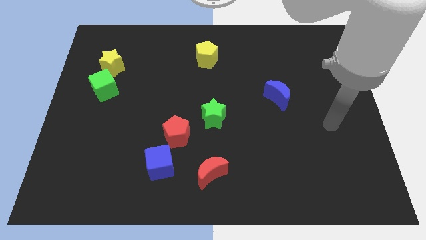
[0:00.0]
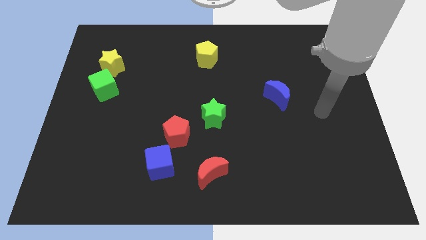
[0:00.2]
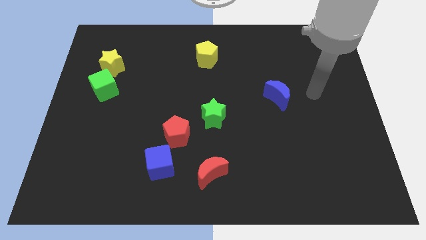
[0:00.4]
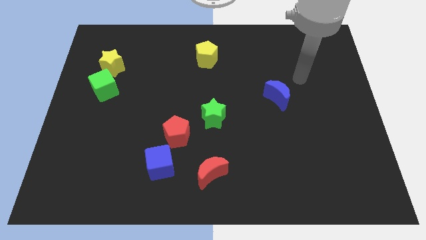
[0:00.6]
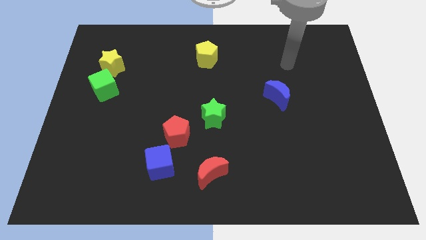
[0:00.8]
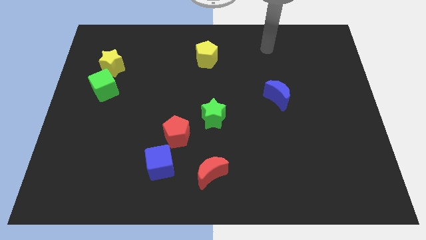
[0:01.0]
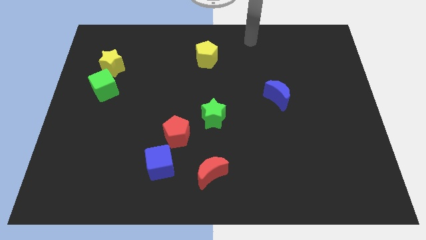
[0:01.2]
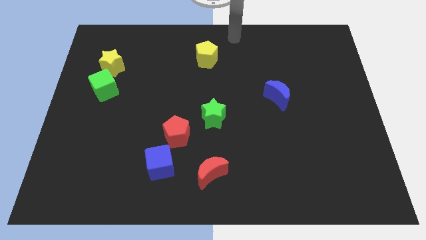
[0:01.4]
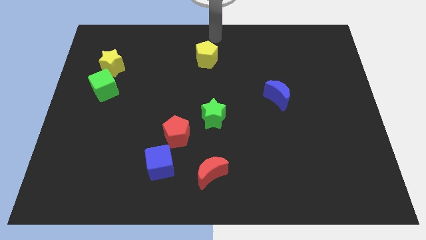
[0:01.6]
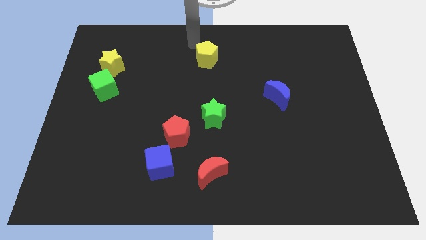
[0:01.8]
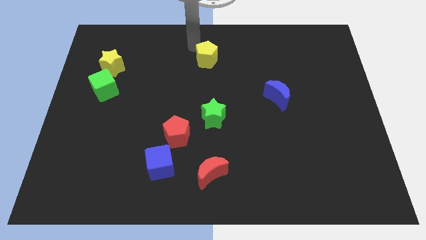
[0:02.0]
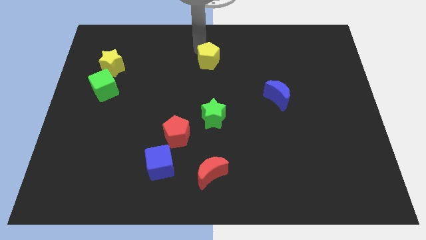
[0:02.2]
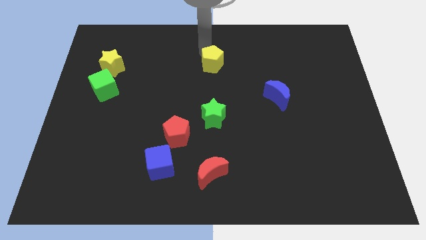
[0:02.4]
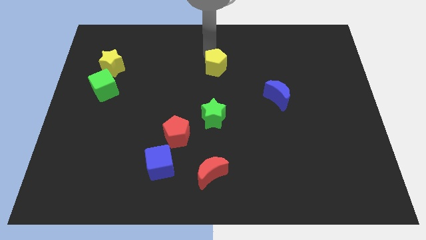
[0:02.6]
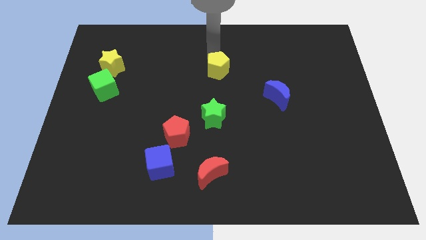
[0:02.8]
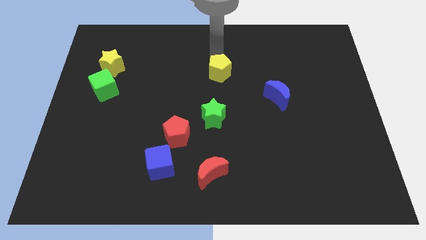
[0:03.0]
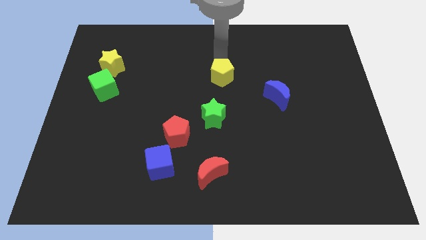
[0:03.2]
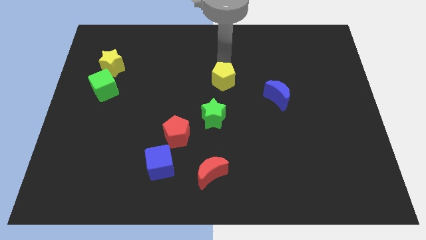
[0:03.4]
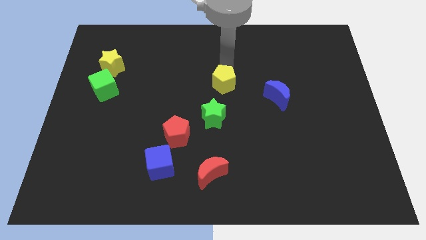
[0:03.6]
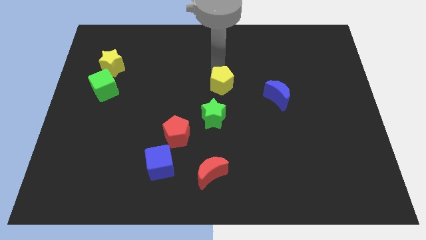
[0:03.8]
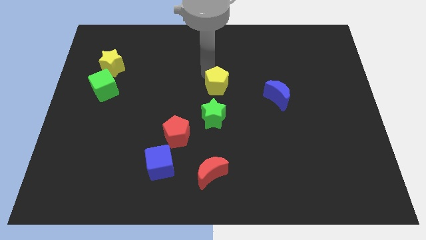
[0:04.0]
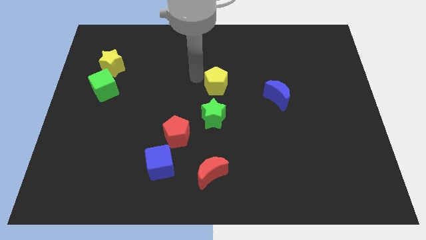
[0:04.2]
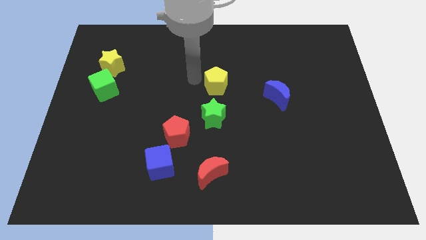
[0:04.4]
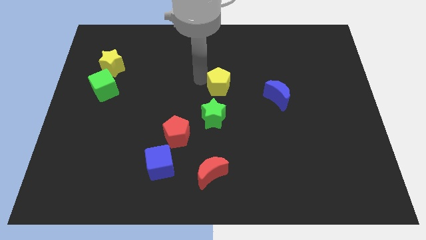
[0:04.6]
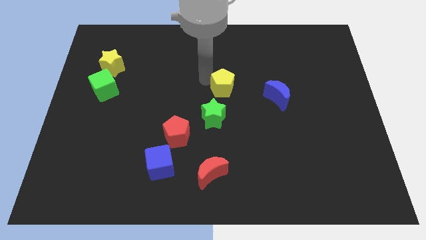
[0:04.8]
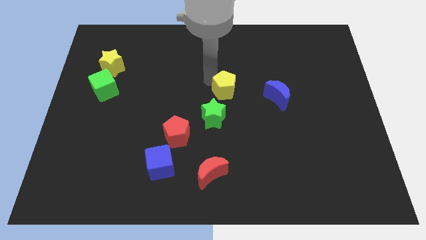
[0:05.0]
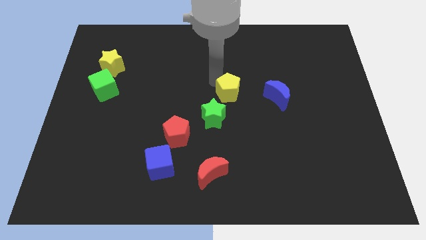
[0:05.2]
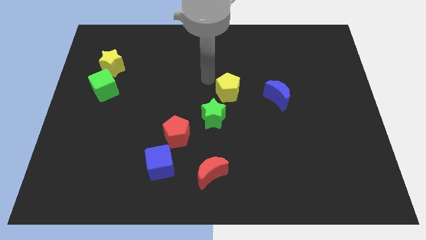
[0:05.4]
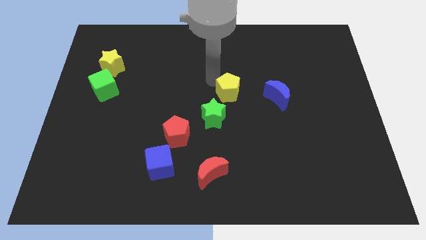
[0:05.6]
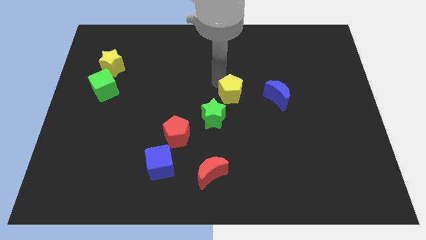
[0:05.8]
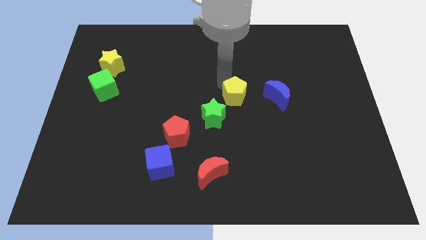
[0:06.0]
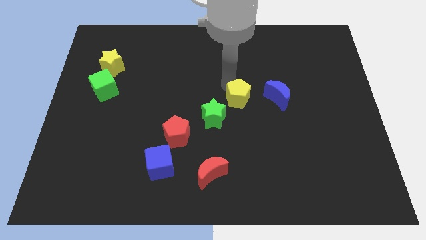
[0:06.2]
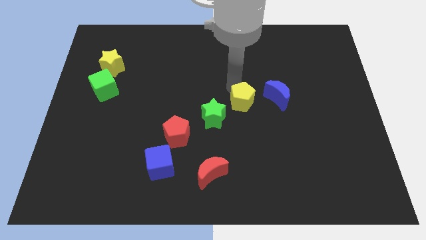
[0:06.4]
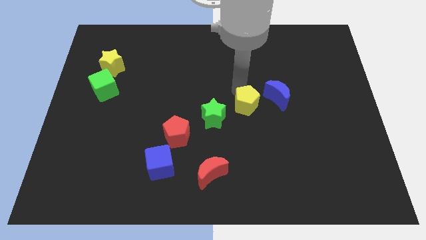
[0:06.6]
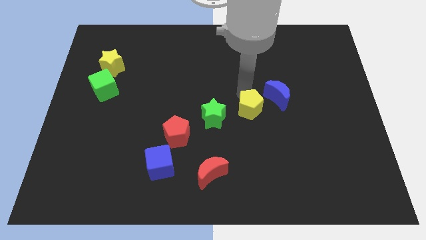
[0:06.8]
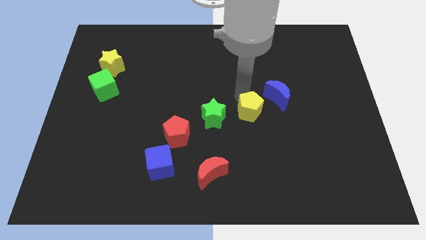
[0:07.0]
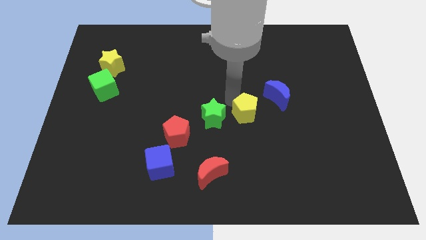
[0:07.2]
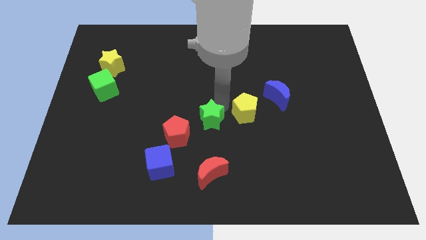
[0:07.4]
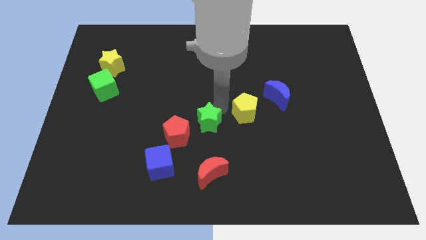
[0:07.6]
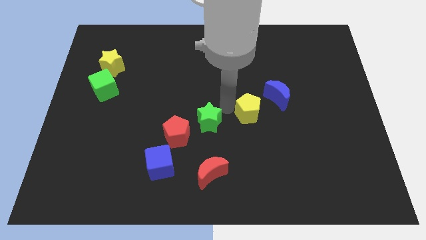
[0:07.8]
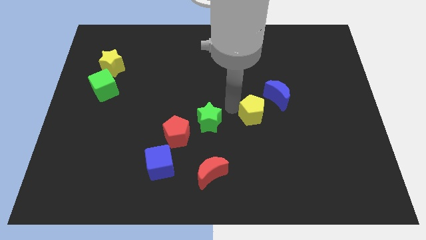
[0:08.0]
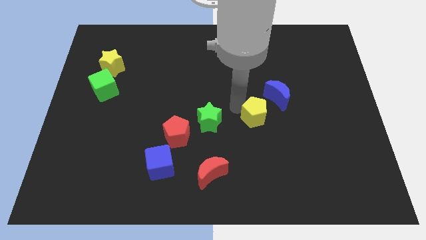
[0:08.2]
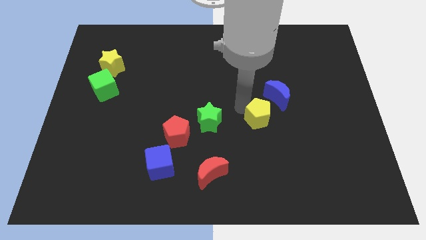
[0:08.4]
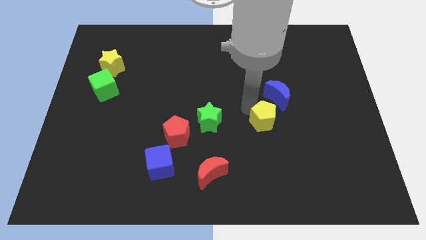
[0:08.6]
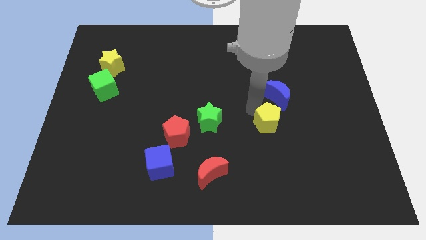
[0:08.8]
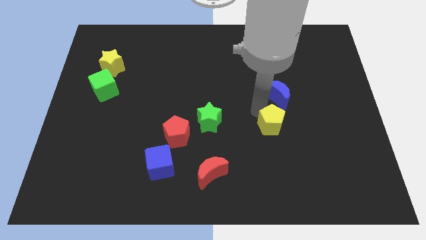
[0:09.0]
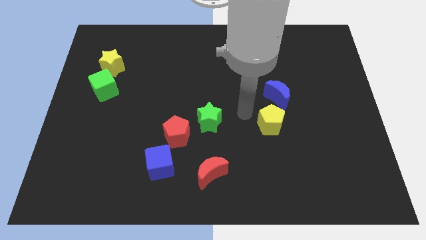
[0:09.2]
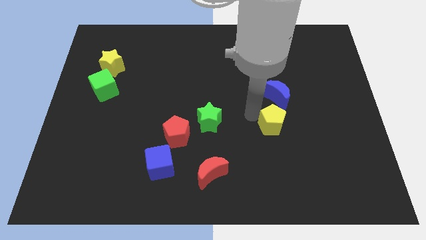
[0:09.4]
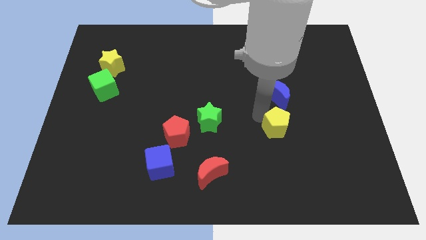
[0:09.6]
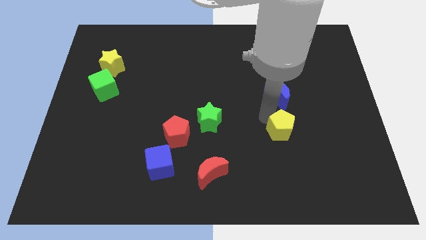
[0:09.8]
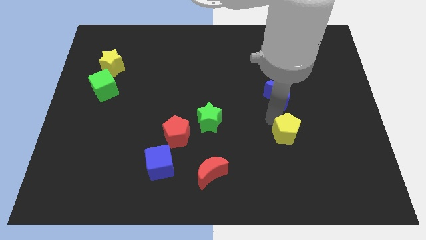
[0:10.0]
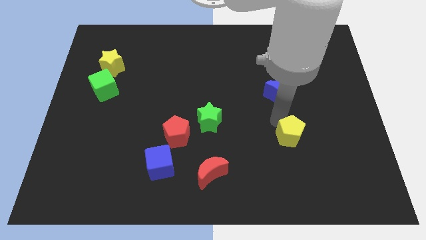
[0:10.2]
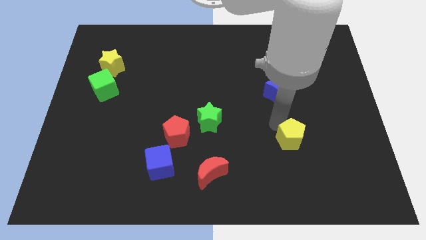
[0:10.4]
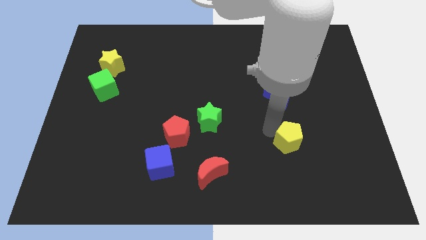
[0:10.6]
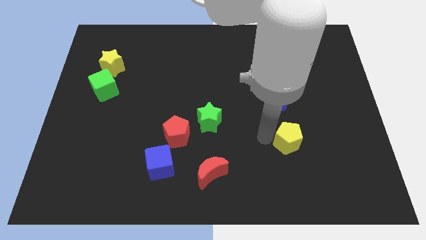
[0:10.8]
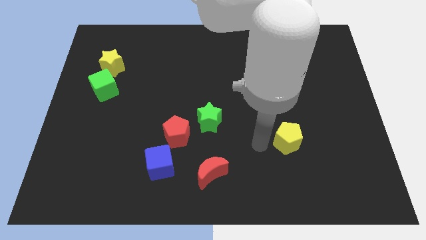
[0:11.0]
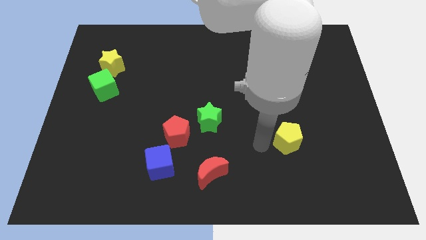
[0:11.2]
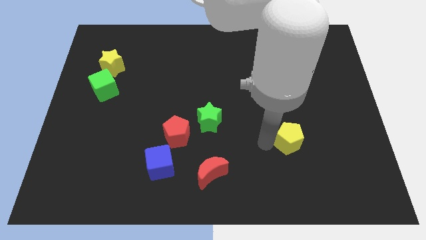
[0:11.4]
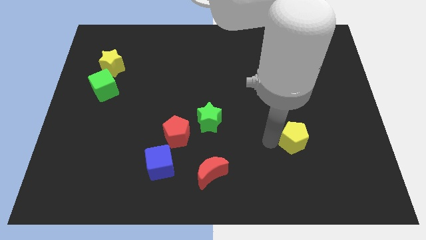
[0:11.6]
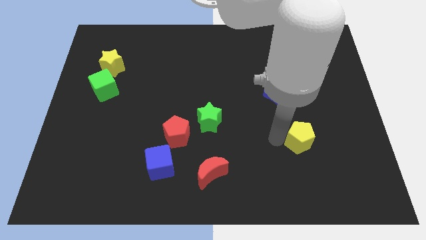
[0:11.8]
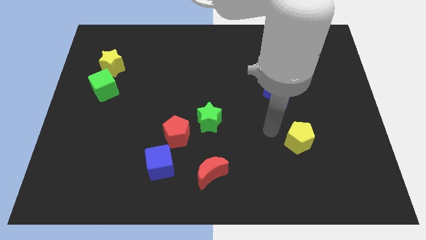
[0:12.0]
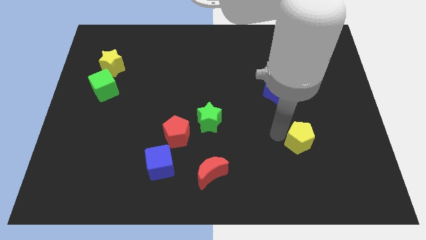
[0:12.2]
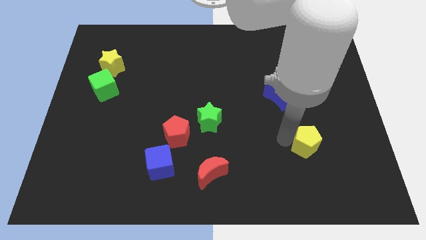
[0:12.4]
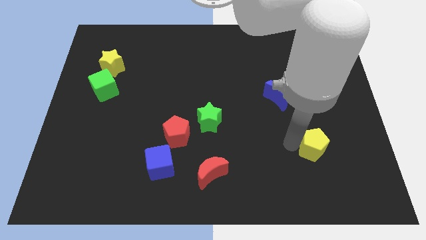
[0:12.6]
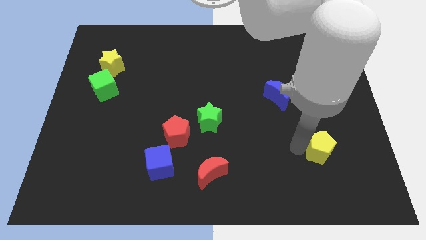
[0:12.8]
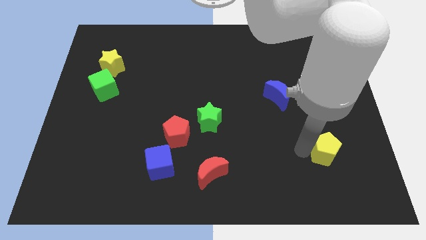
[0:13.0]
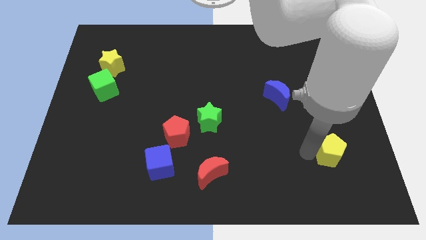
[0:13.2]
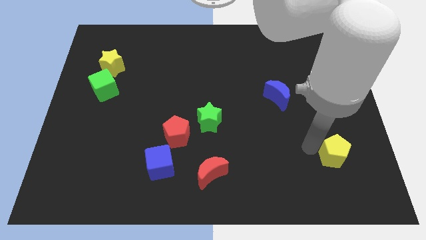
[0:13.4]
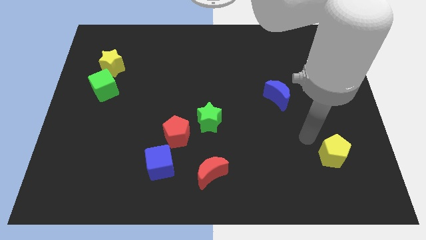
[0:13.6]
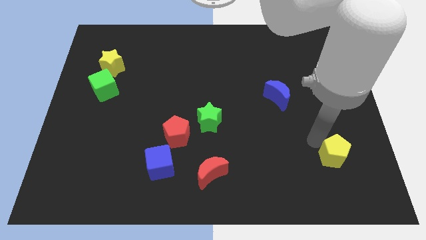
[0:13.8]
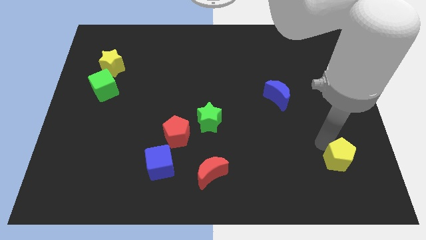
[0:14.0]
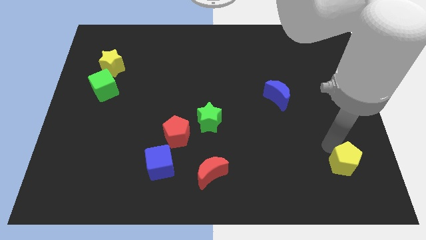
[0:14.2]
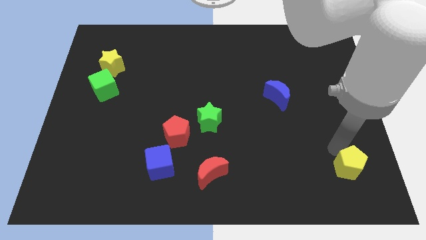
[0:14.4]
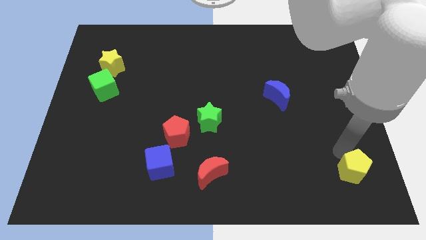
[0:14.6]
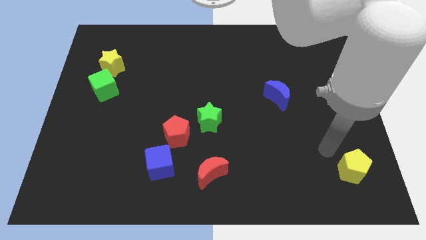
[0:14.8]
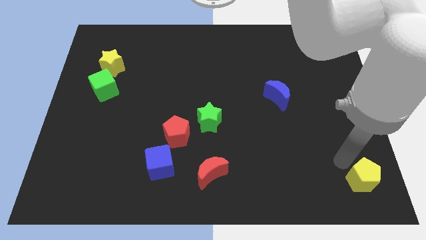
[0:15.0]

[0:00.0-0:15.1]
slide the yellow pentagon to the bottom right
